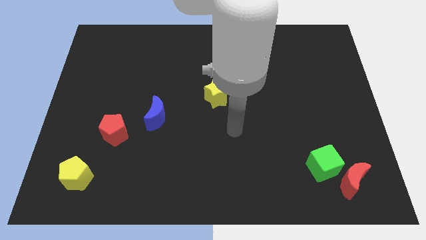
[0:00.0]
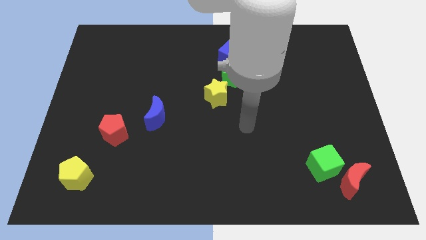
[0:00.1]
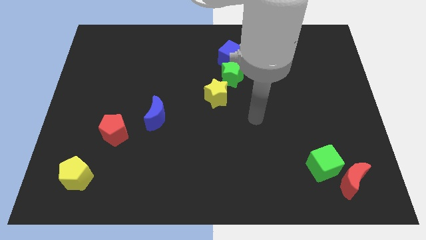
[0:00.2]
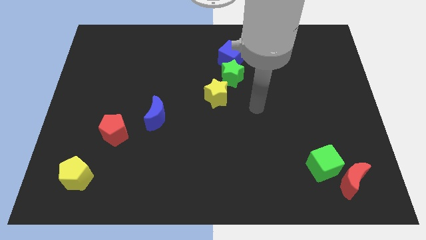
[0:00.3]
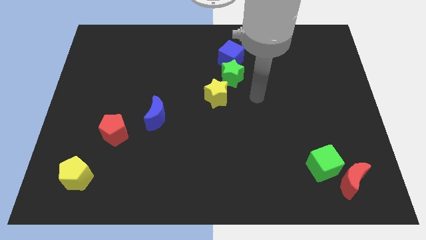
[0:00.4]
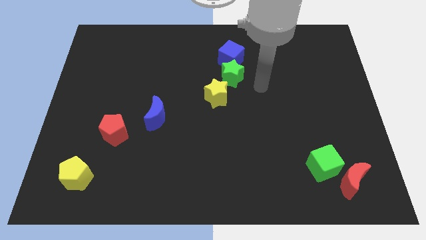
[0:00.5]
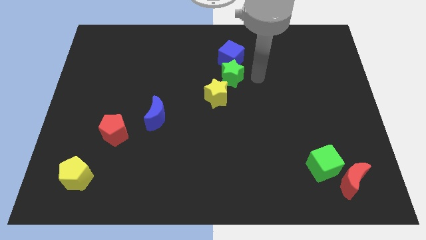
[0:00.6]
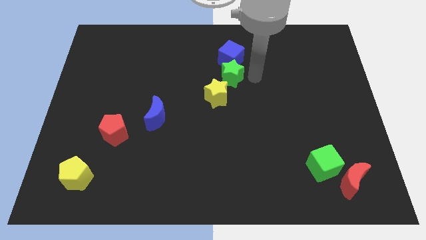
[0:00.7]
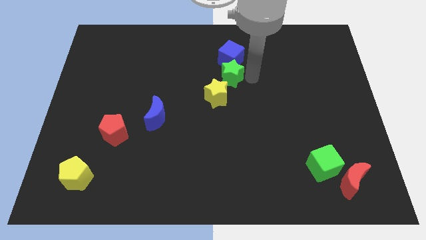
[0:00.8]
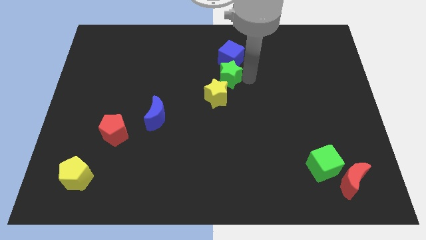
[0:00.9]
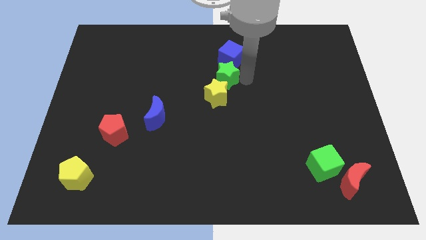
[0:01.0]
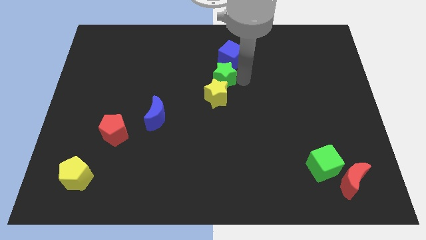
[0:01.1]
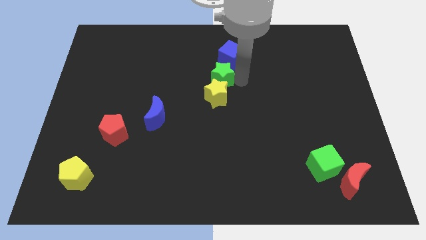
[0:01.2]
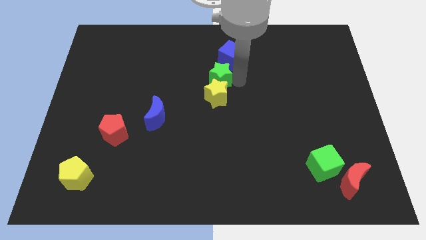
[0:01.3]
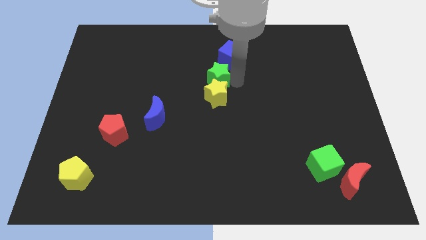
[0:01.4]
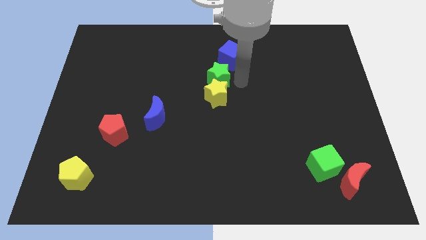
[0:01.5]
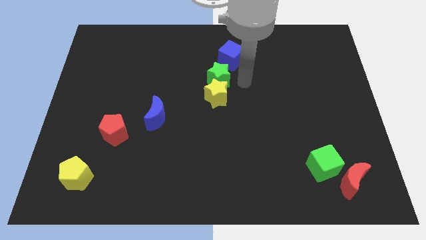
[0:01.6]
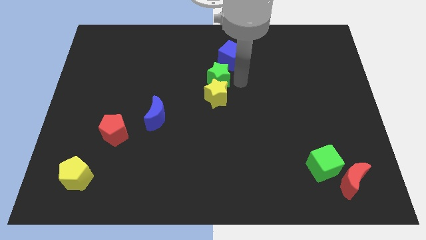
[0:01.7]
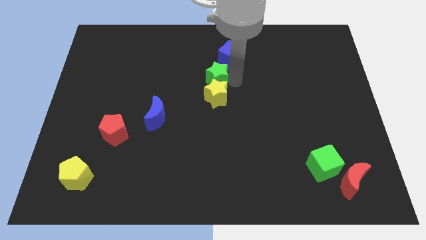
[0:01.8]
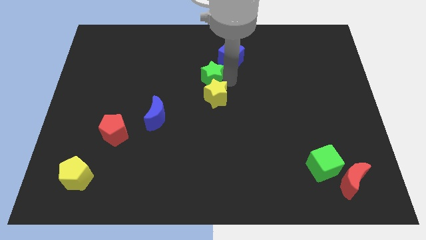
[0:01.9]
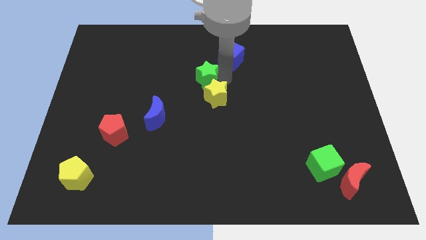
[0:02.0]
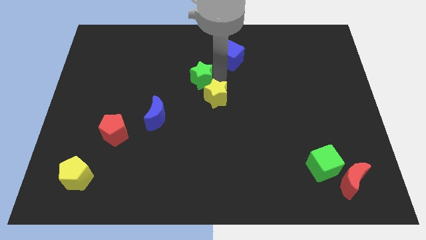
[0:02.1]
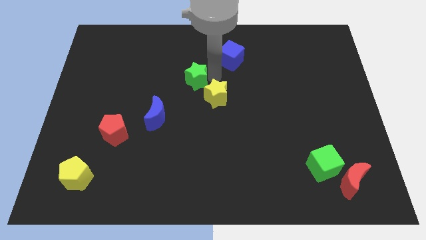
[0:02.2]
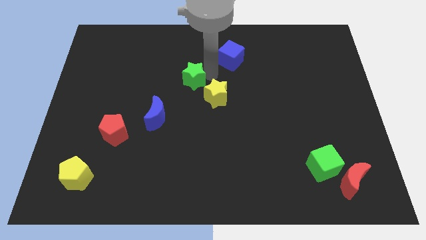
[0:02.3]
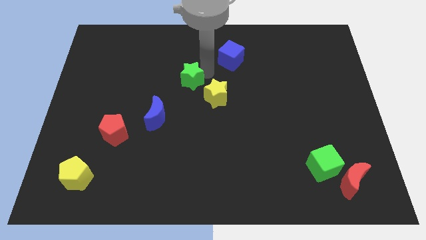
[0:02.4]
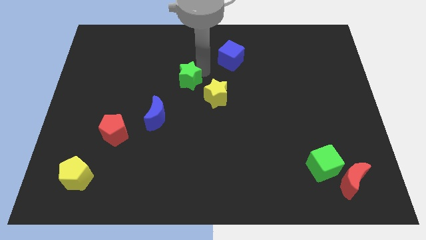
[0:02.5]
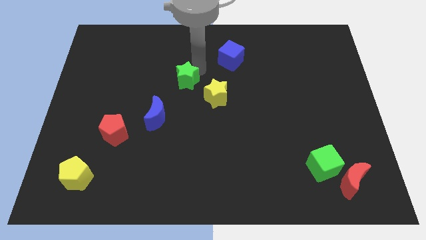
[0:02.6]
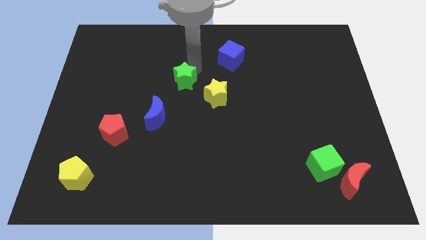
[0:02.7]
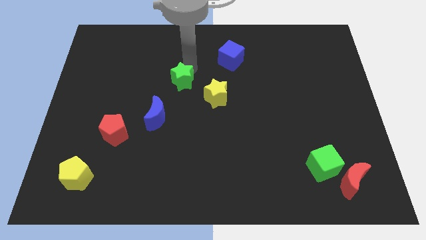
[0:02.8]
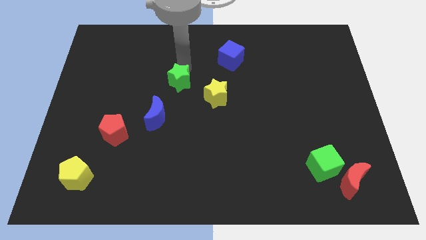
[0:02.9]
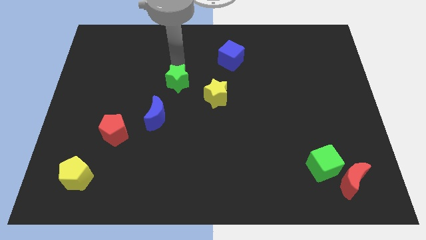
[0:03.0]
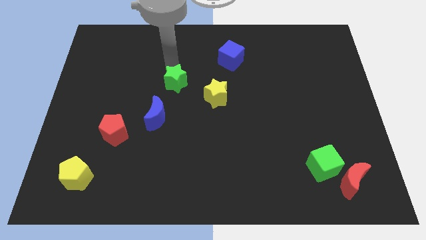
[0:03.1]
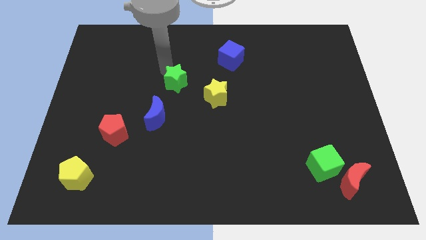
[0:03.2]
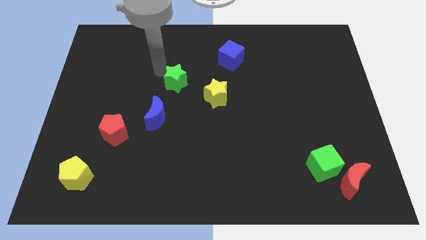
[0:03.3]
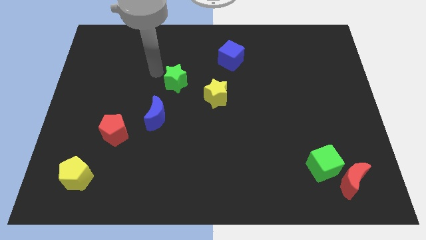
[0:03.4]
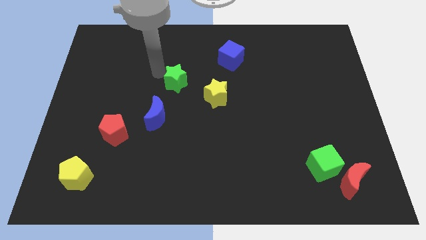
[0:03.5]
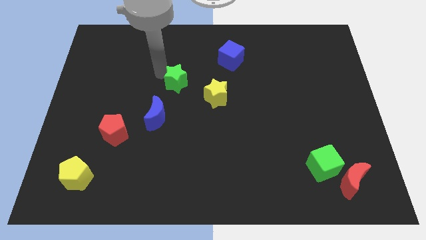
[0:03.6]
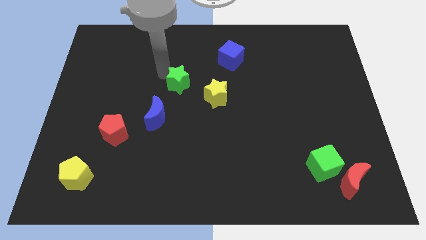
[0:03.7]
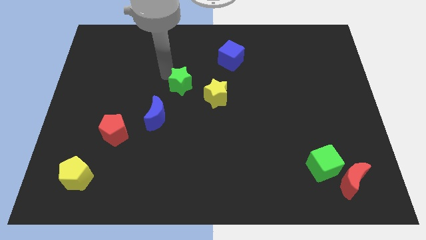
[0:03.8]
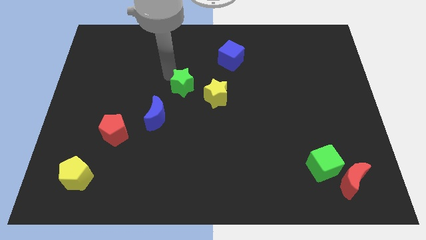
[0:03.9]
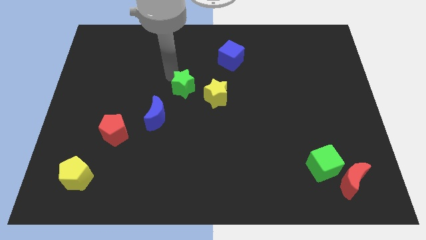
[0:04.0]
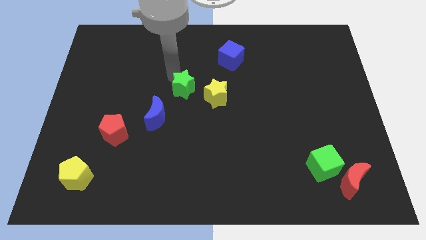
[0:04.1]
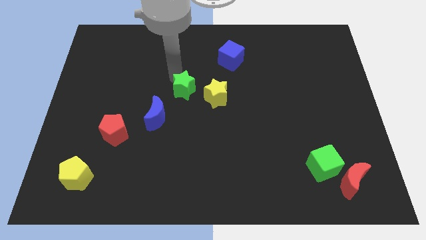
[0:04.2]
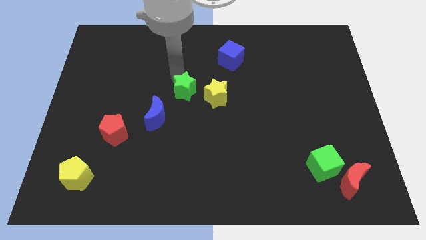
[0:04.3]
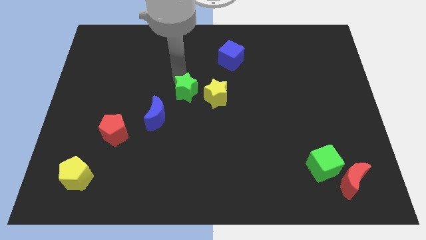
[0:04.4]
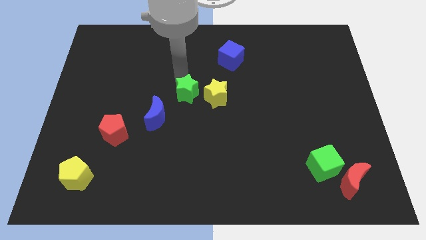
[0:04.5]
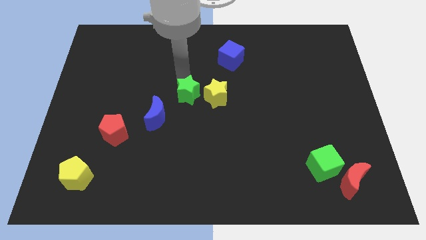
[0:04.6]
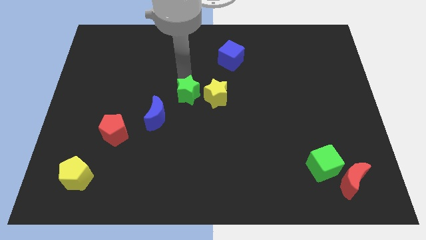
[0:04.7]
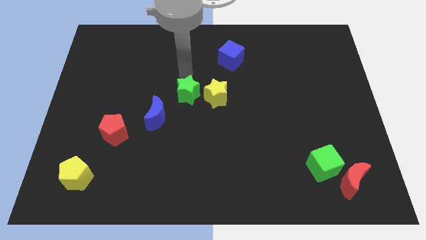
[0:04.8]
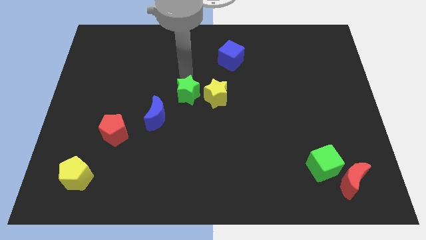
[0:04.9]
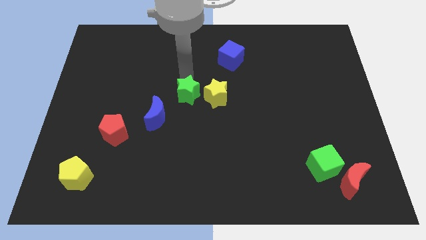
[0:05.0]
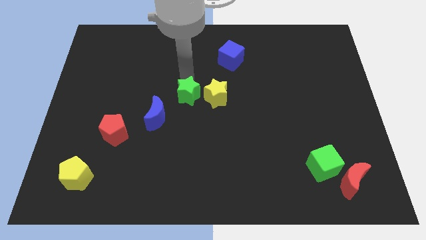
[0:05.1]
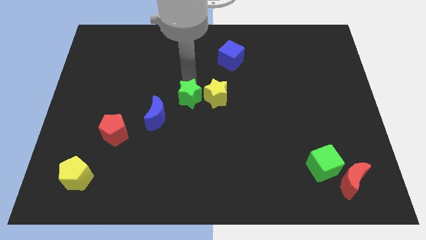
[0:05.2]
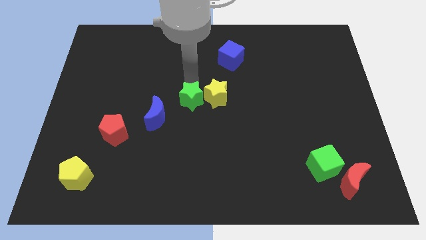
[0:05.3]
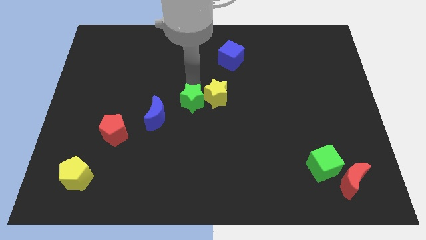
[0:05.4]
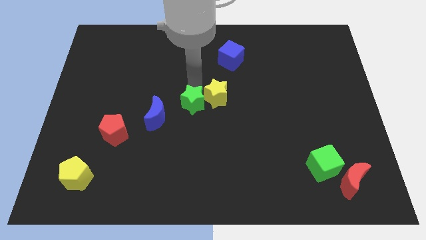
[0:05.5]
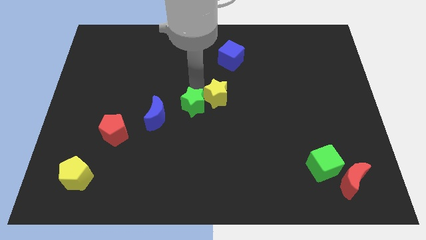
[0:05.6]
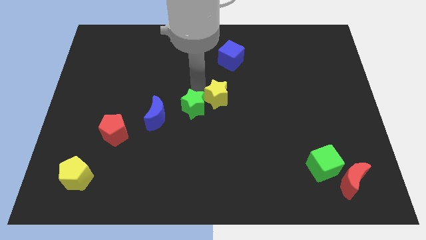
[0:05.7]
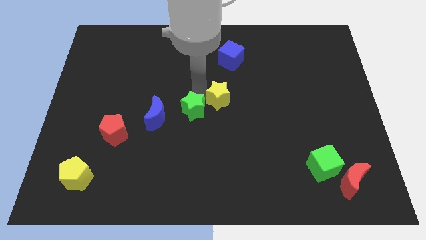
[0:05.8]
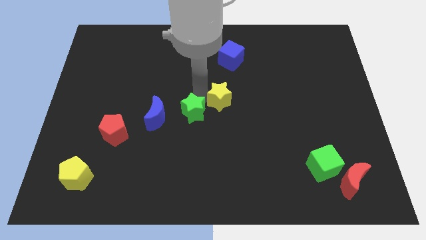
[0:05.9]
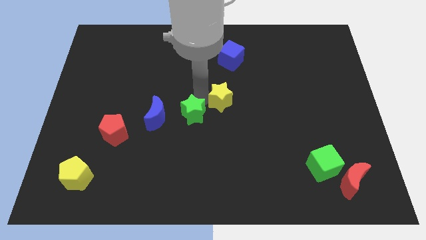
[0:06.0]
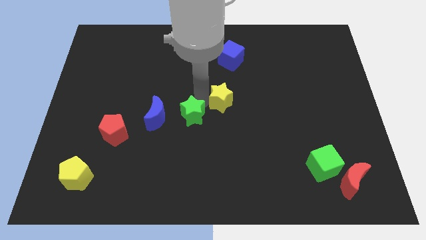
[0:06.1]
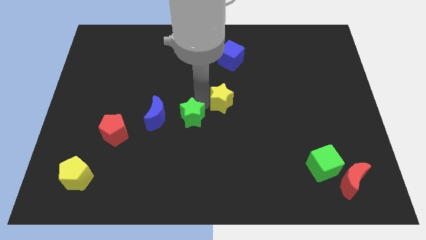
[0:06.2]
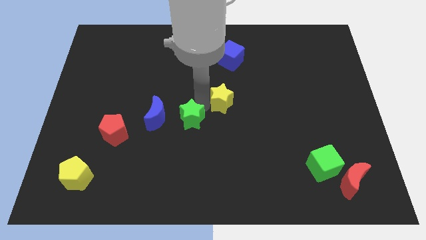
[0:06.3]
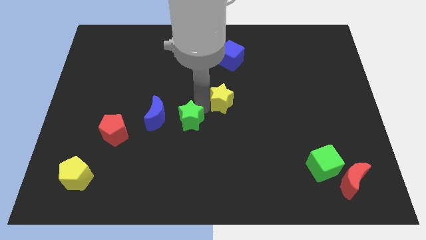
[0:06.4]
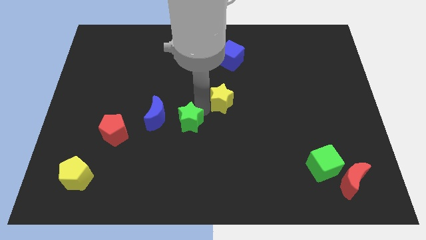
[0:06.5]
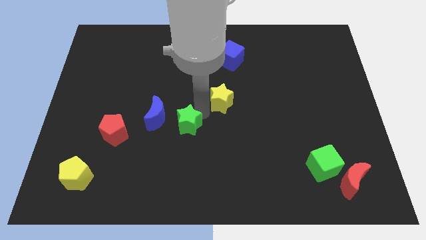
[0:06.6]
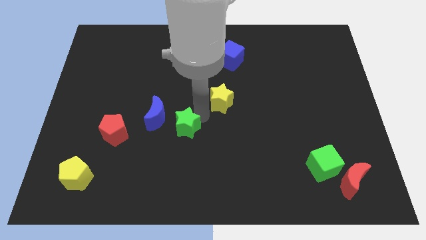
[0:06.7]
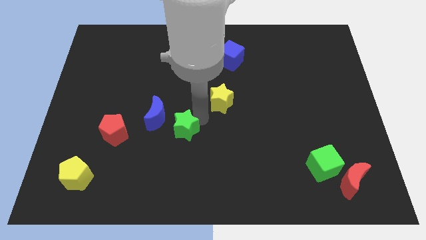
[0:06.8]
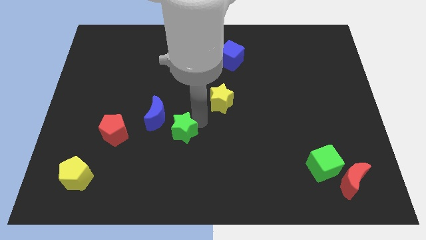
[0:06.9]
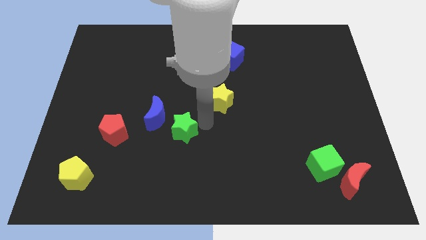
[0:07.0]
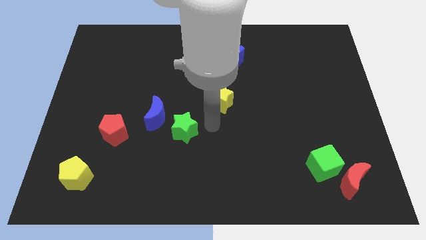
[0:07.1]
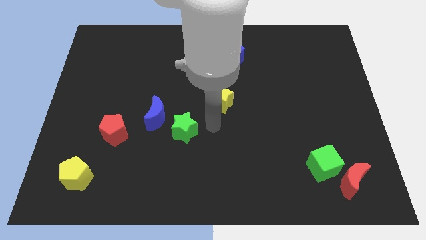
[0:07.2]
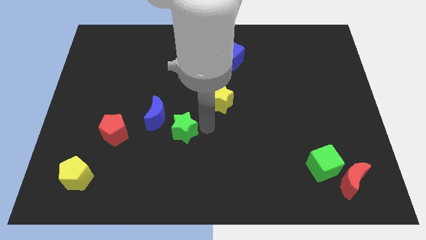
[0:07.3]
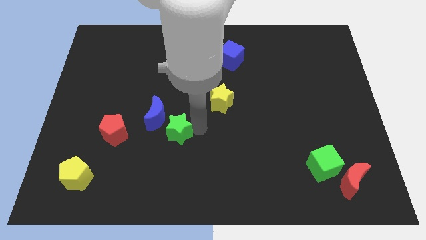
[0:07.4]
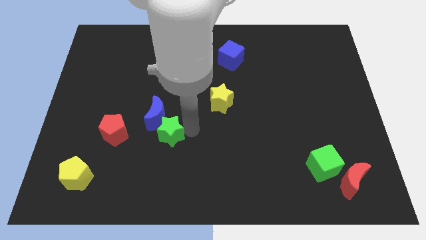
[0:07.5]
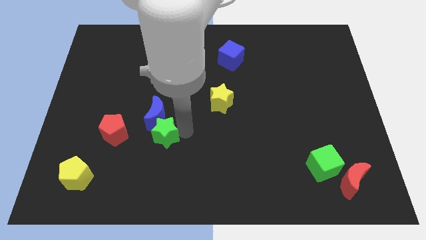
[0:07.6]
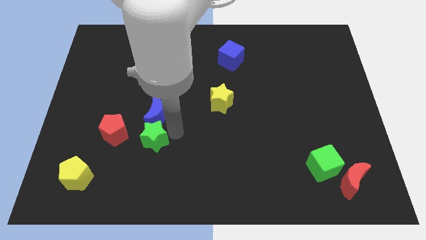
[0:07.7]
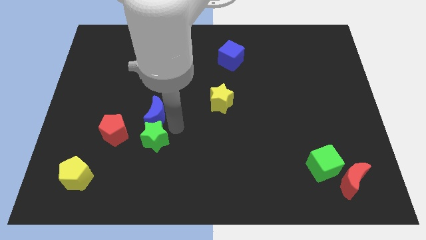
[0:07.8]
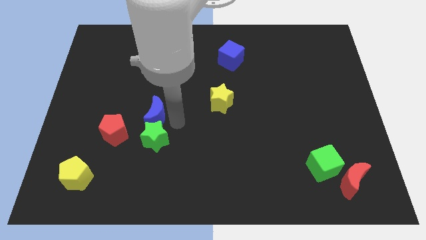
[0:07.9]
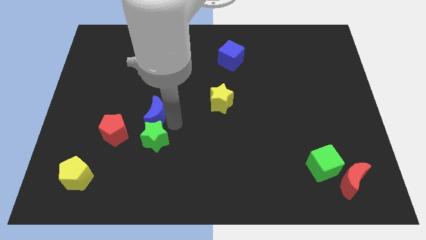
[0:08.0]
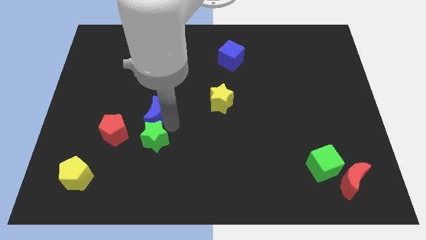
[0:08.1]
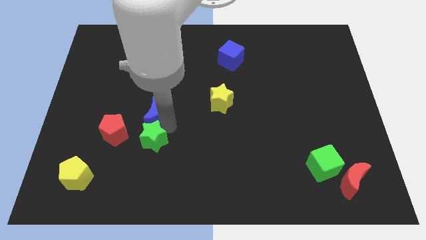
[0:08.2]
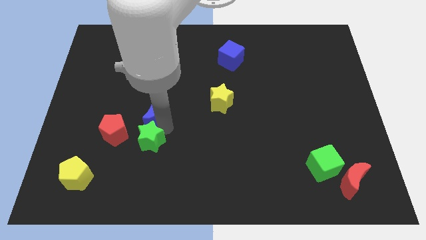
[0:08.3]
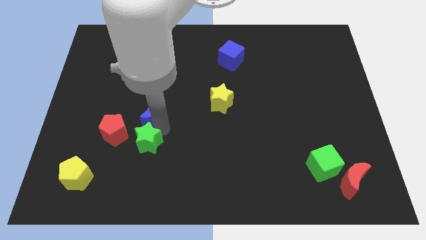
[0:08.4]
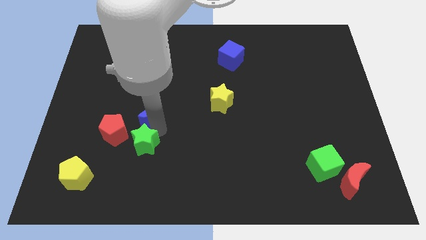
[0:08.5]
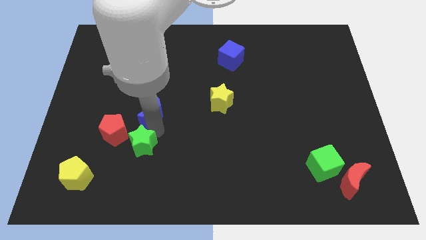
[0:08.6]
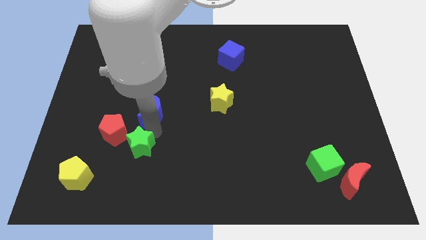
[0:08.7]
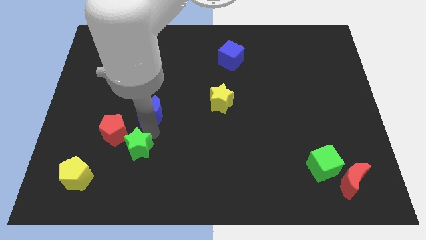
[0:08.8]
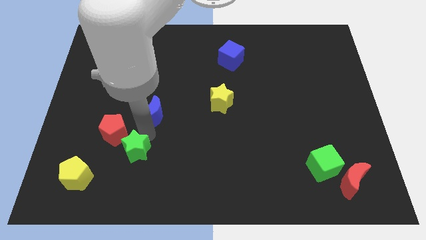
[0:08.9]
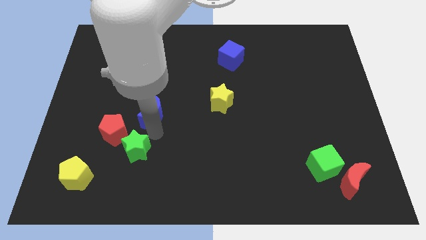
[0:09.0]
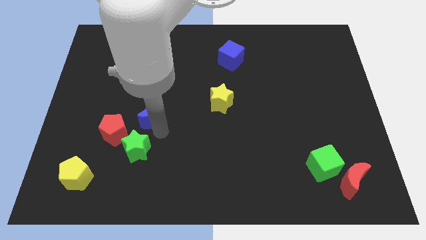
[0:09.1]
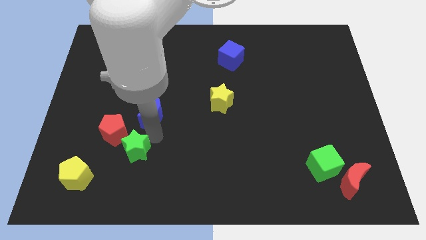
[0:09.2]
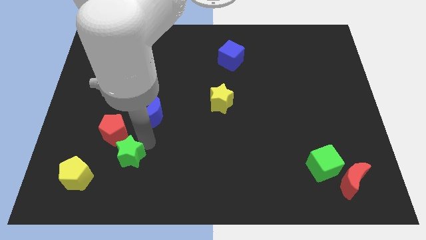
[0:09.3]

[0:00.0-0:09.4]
push the green star to the bottom of the red pentagon
